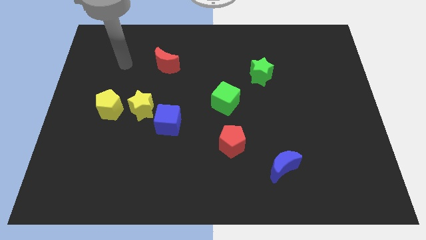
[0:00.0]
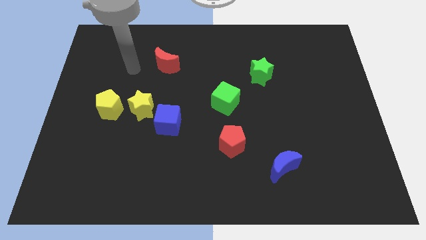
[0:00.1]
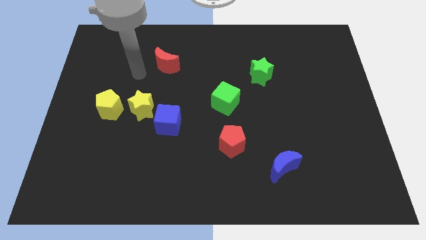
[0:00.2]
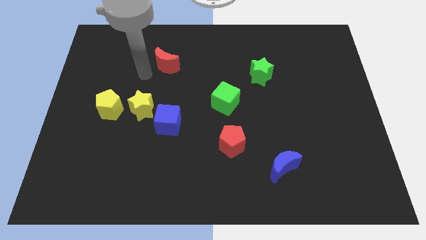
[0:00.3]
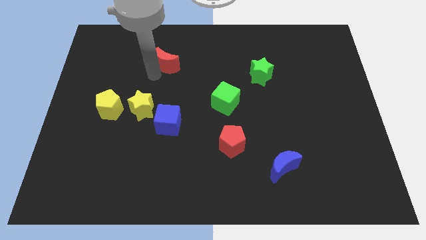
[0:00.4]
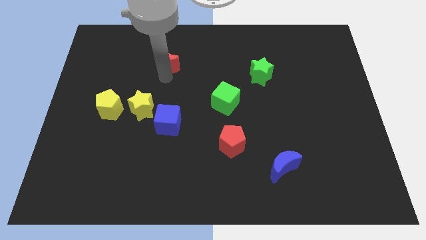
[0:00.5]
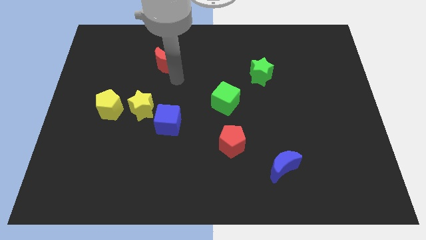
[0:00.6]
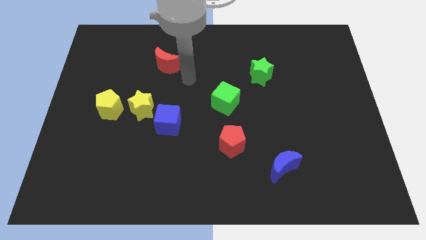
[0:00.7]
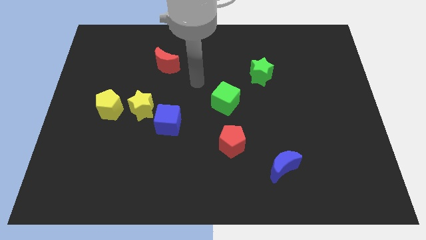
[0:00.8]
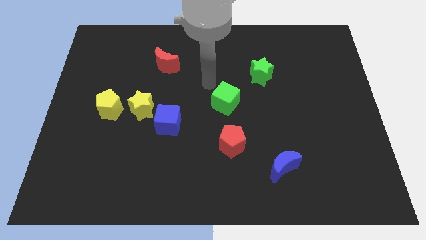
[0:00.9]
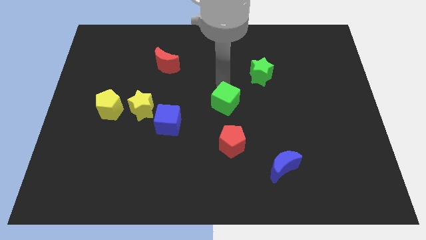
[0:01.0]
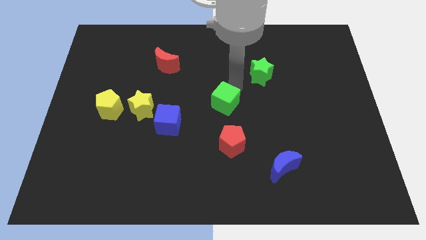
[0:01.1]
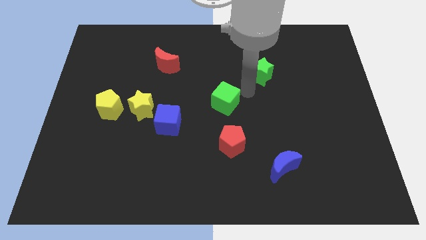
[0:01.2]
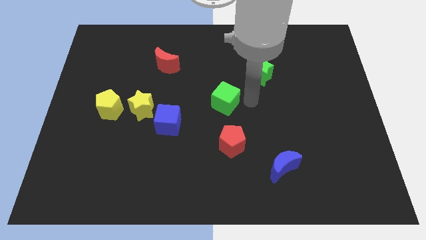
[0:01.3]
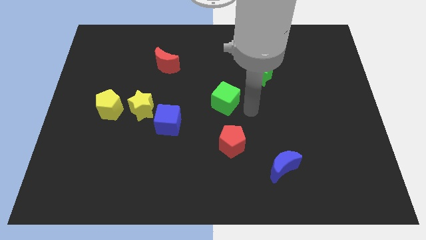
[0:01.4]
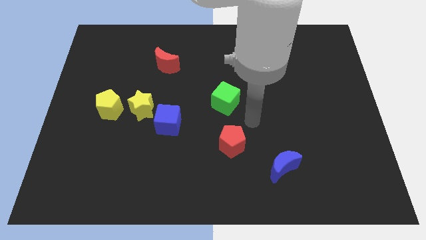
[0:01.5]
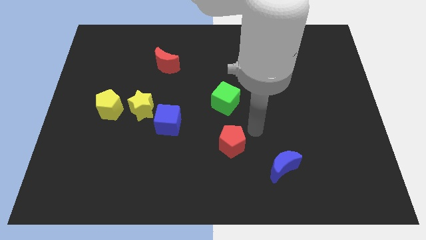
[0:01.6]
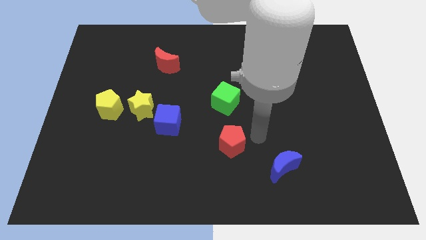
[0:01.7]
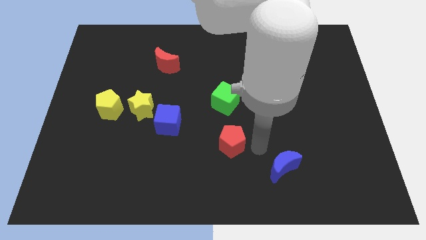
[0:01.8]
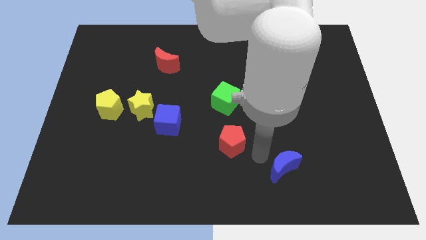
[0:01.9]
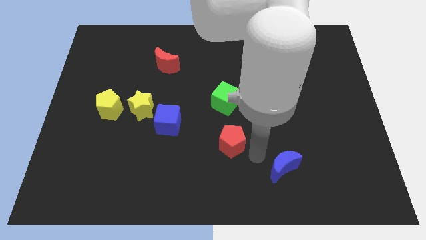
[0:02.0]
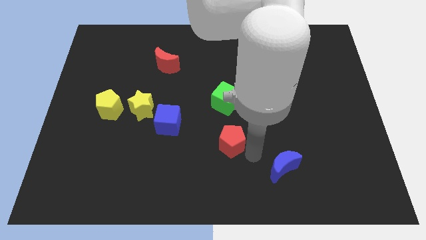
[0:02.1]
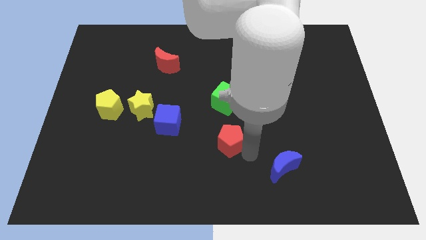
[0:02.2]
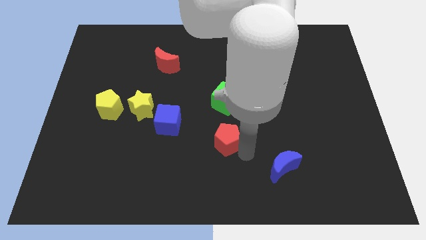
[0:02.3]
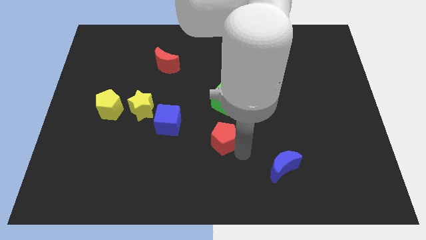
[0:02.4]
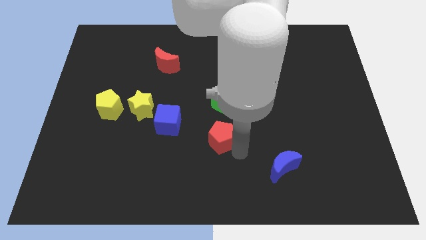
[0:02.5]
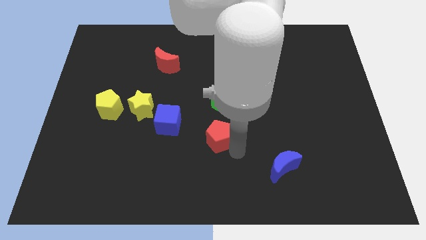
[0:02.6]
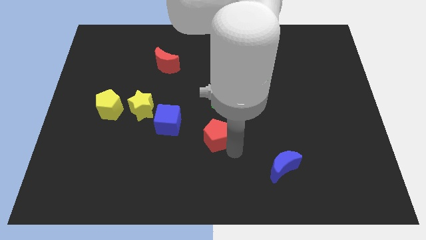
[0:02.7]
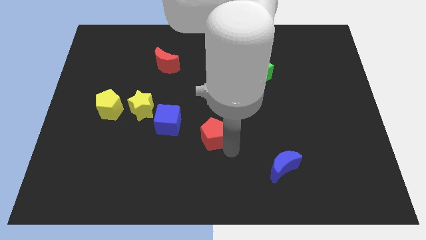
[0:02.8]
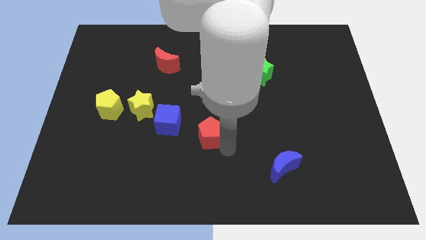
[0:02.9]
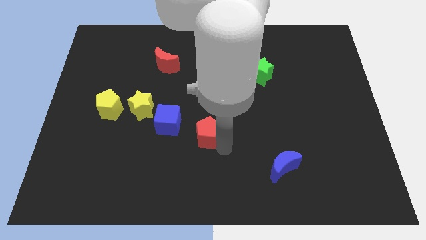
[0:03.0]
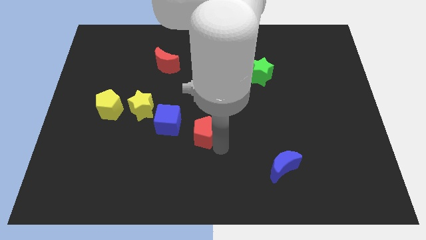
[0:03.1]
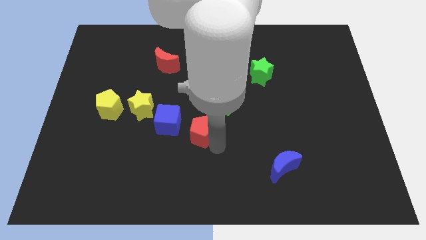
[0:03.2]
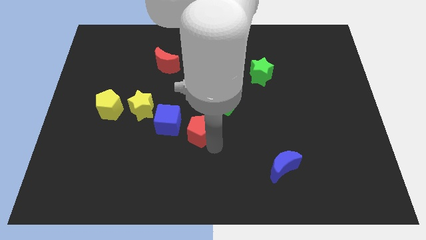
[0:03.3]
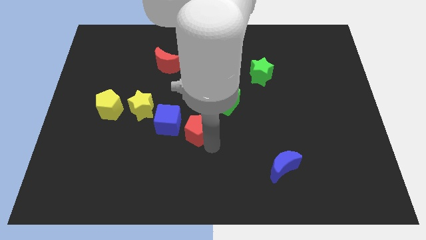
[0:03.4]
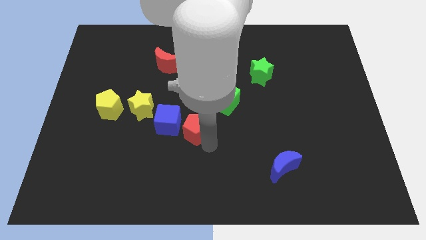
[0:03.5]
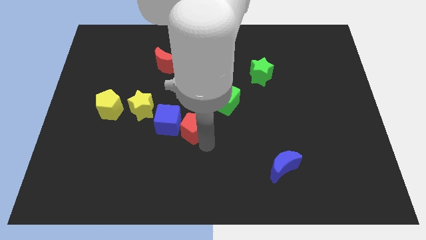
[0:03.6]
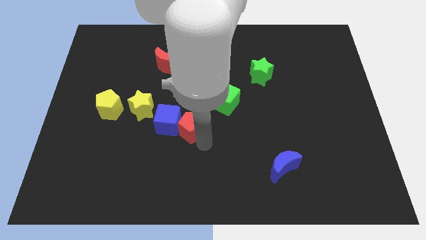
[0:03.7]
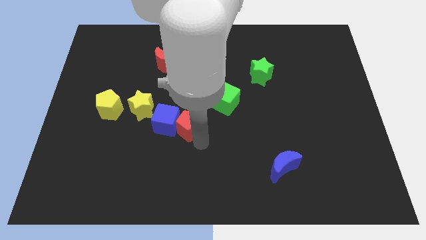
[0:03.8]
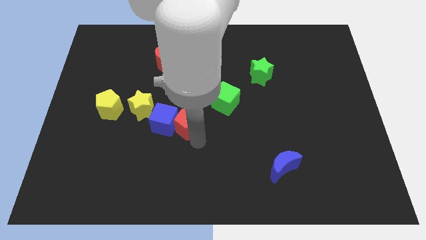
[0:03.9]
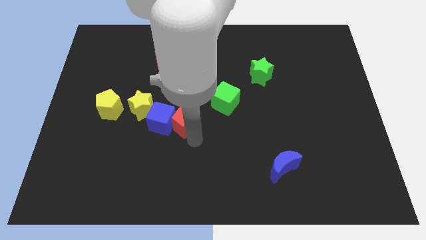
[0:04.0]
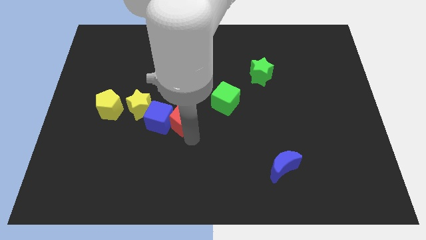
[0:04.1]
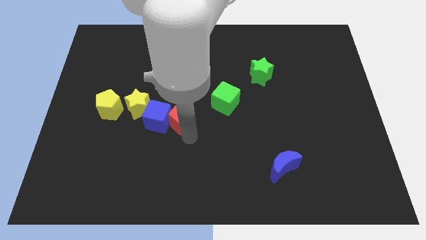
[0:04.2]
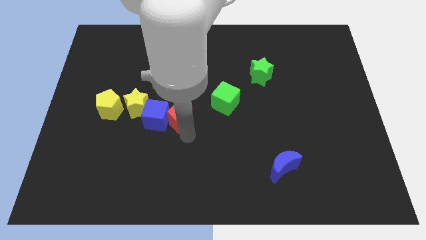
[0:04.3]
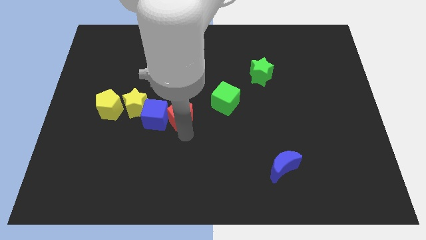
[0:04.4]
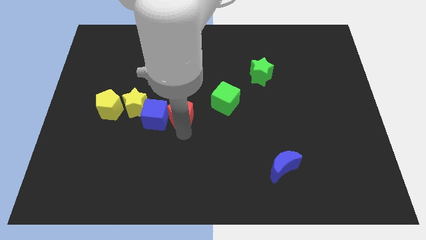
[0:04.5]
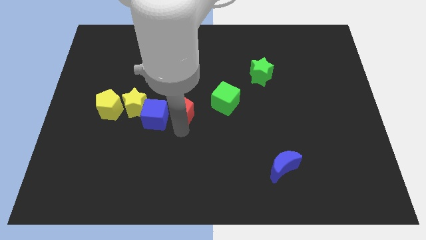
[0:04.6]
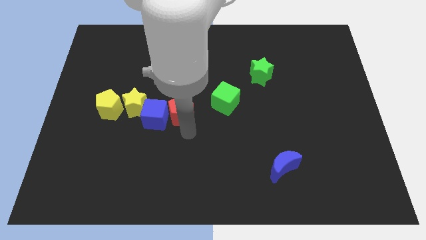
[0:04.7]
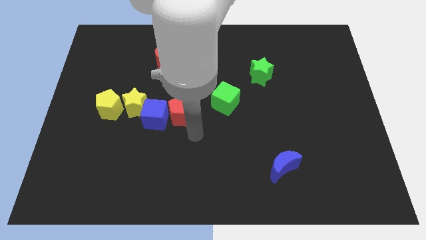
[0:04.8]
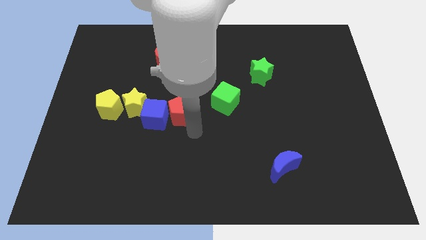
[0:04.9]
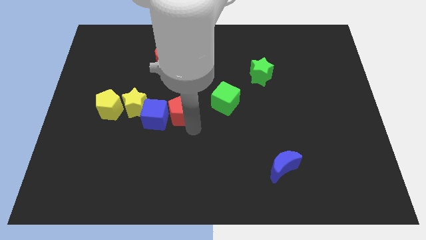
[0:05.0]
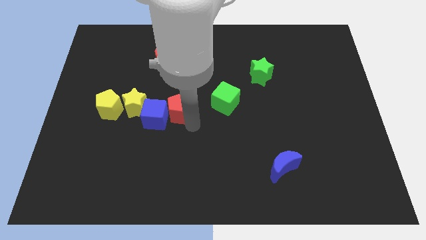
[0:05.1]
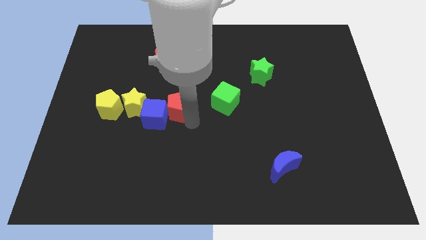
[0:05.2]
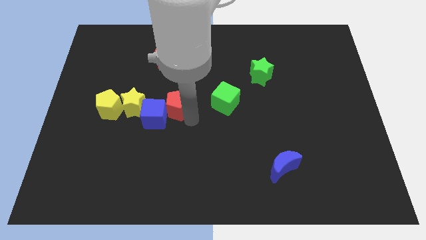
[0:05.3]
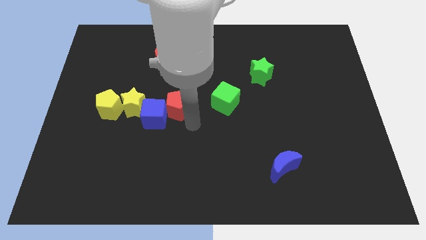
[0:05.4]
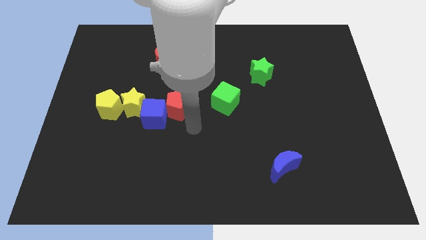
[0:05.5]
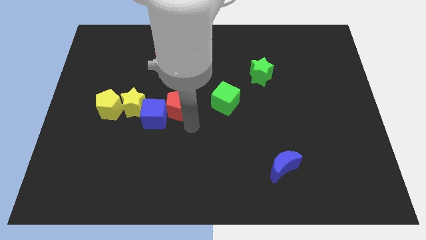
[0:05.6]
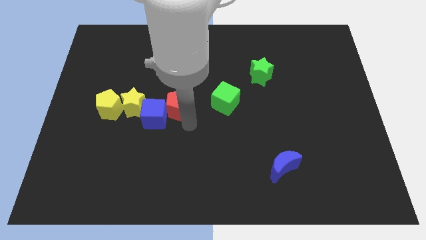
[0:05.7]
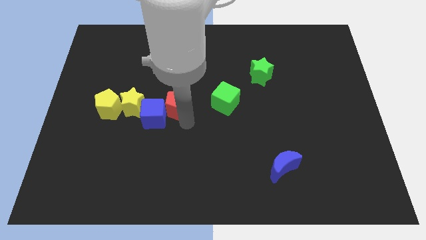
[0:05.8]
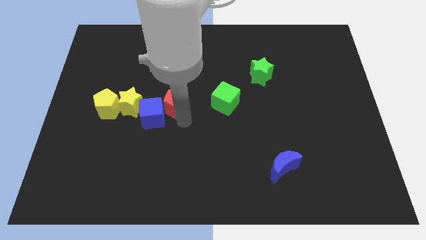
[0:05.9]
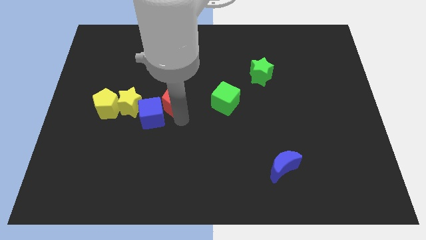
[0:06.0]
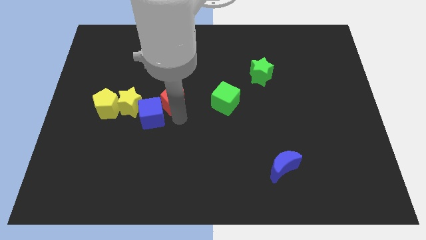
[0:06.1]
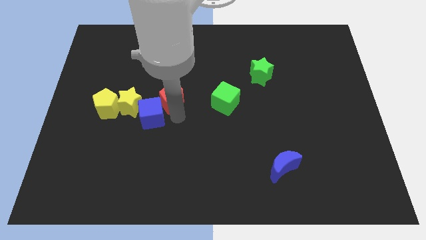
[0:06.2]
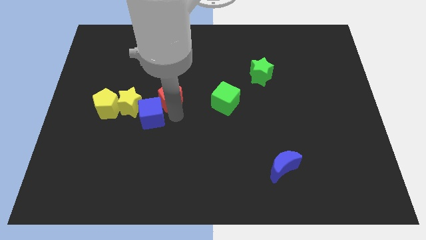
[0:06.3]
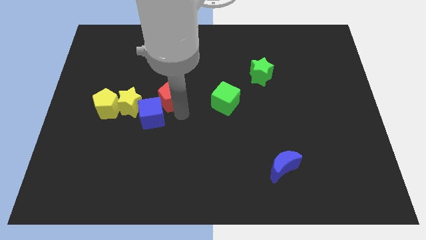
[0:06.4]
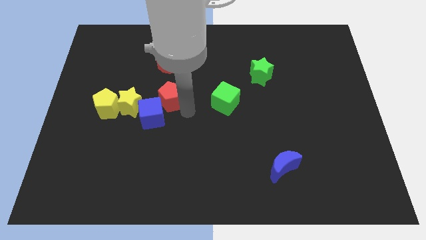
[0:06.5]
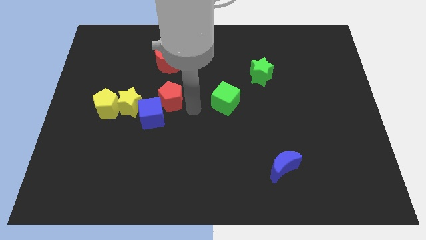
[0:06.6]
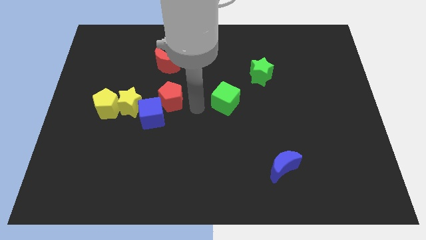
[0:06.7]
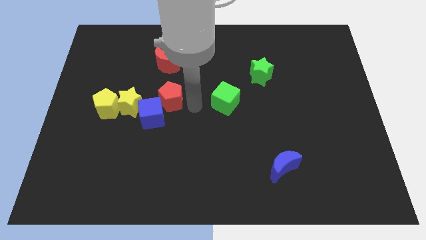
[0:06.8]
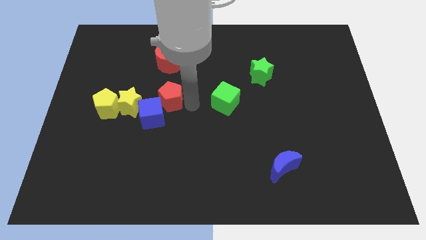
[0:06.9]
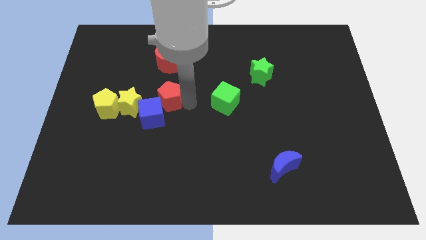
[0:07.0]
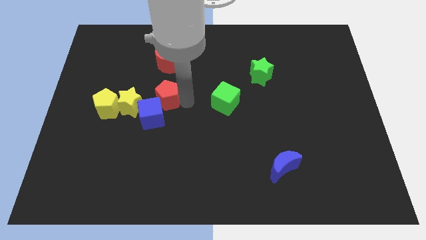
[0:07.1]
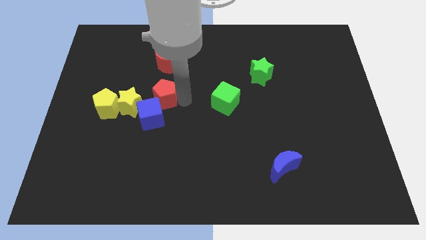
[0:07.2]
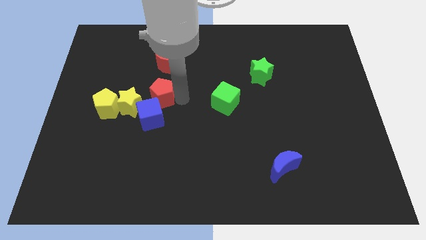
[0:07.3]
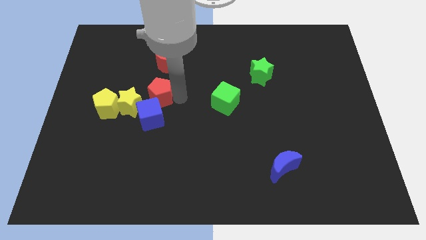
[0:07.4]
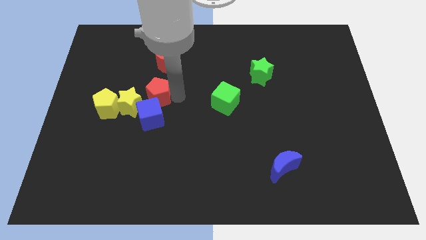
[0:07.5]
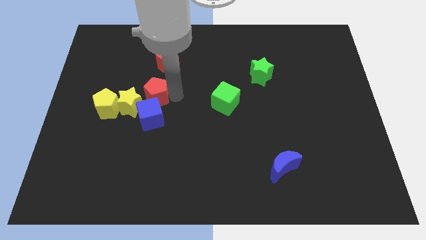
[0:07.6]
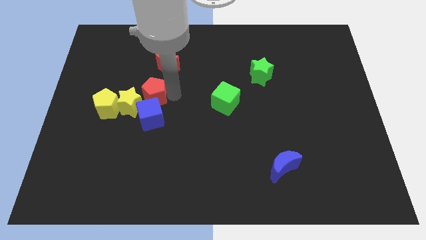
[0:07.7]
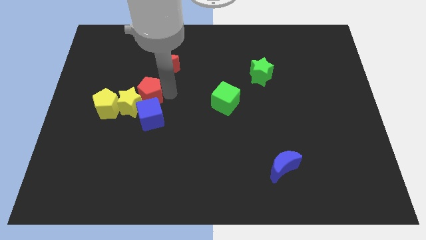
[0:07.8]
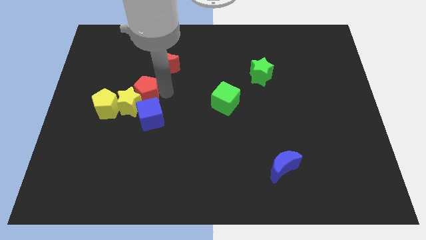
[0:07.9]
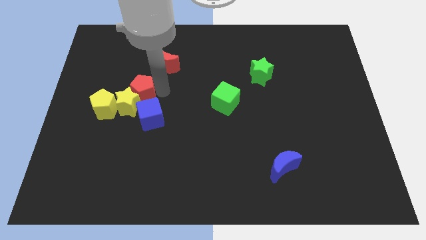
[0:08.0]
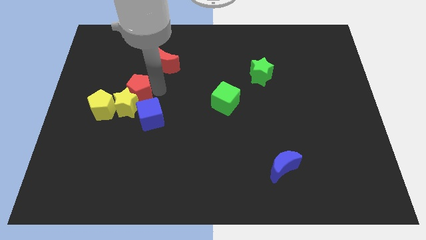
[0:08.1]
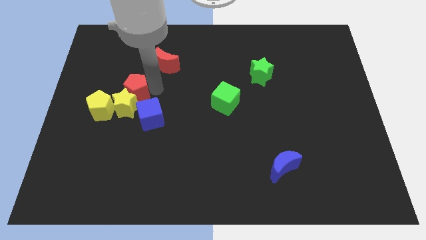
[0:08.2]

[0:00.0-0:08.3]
move the red pentagon to the top left side of the yellow star
